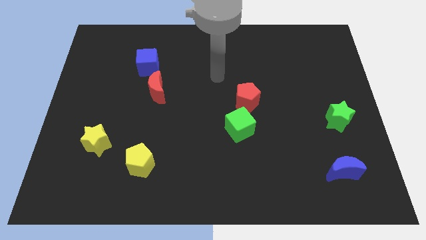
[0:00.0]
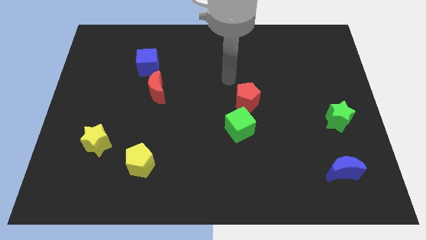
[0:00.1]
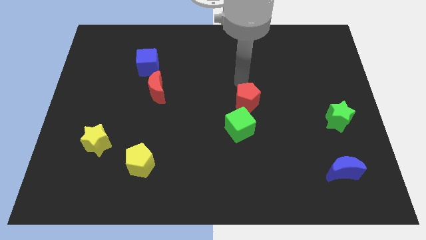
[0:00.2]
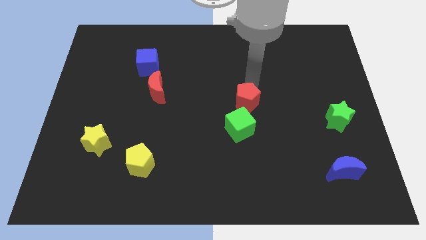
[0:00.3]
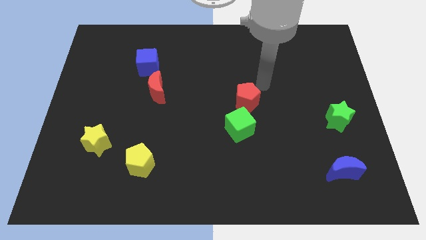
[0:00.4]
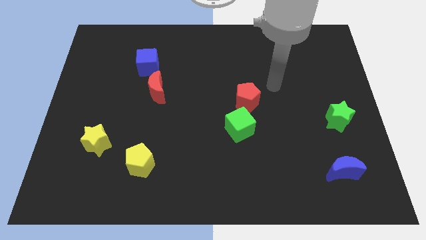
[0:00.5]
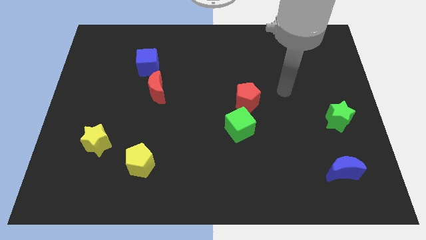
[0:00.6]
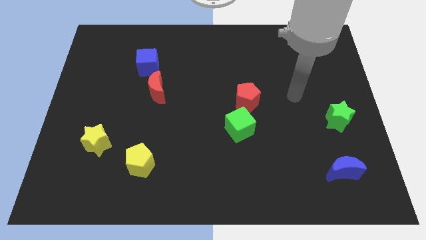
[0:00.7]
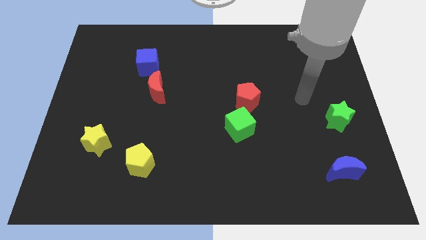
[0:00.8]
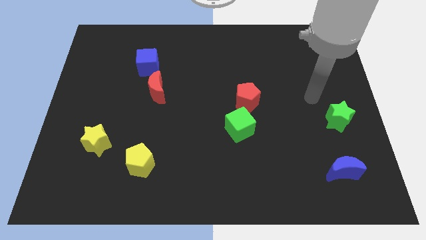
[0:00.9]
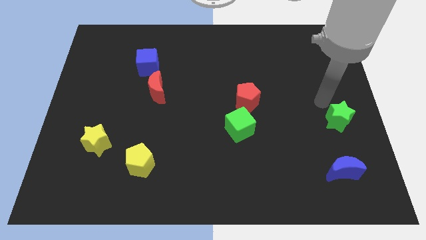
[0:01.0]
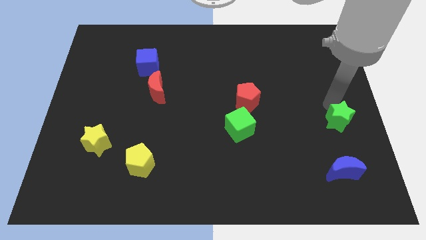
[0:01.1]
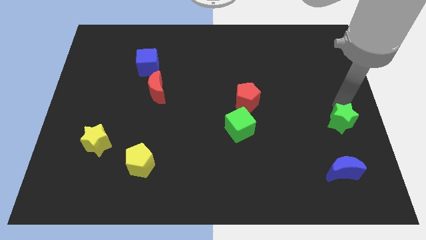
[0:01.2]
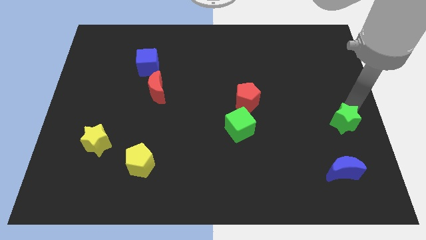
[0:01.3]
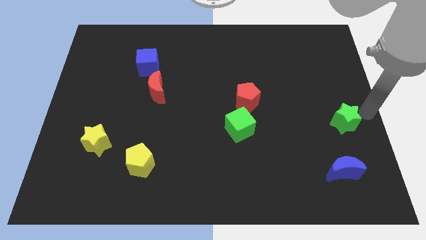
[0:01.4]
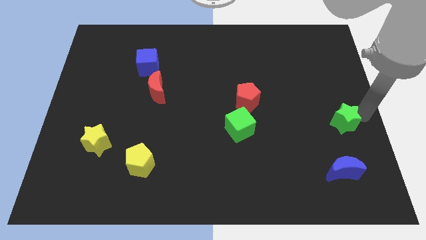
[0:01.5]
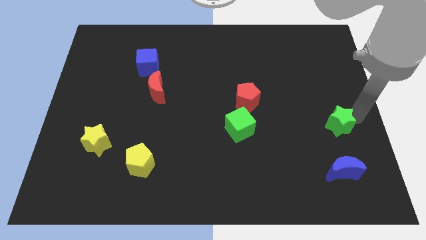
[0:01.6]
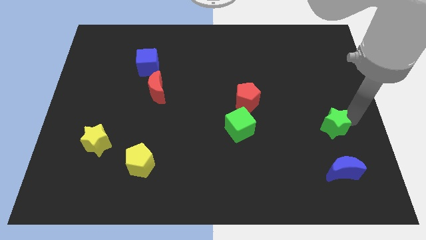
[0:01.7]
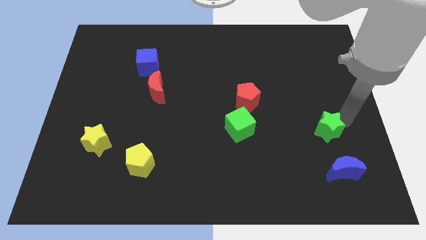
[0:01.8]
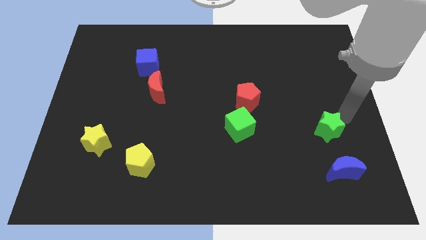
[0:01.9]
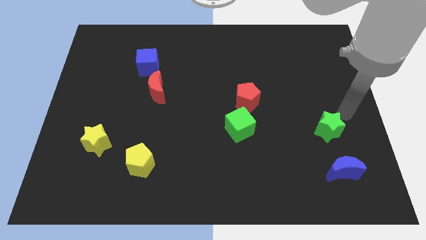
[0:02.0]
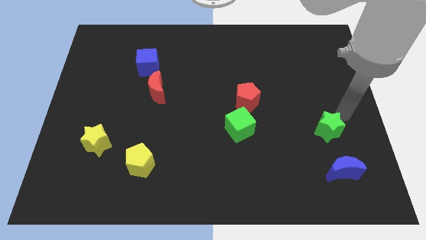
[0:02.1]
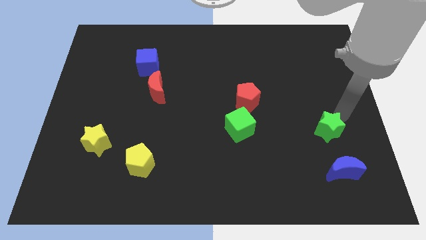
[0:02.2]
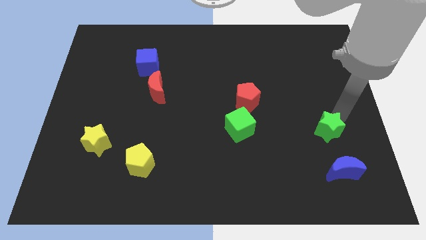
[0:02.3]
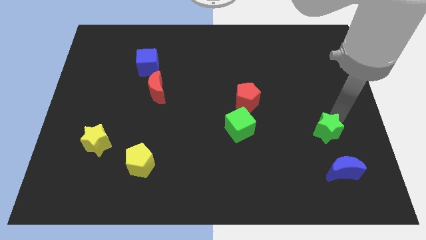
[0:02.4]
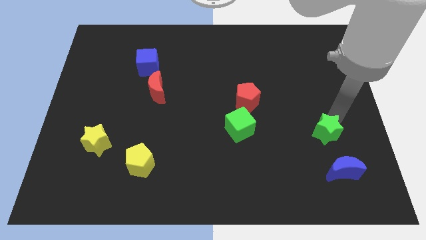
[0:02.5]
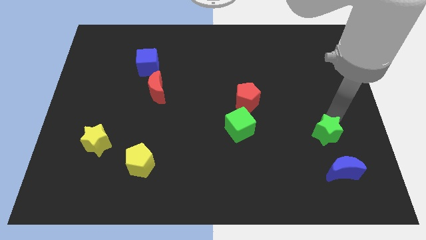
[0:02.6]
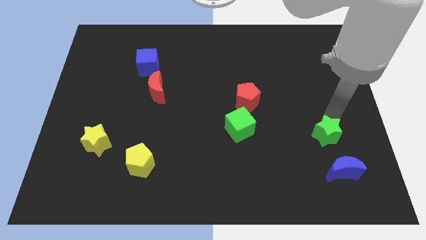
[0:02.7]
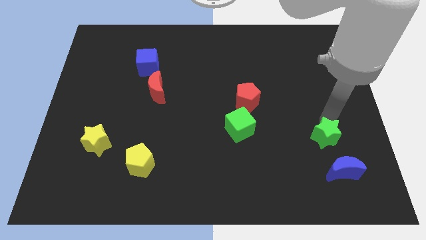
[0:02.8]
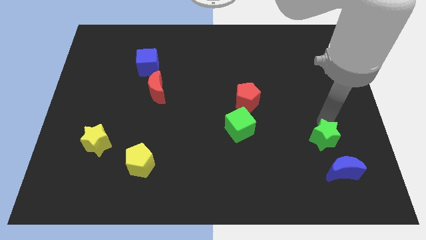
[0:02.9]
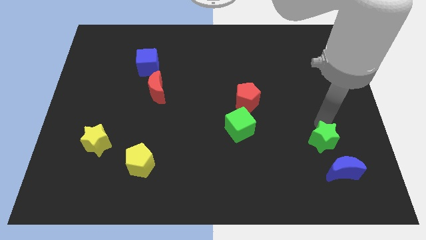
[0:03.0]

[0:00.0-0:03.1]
move the green star a little bit down and left

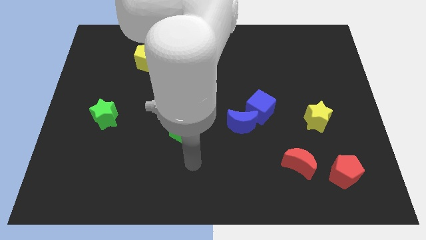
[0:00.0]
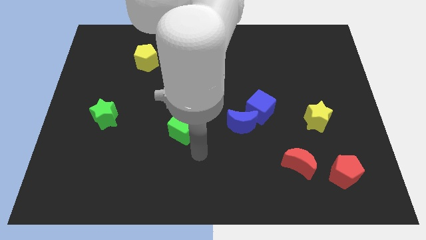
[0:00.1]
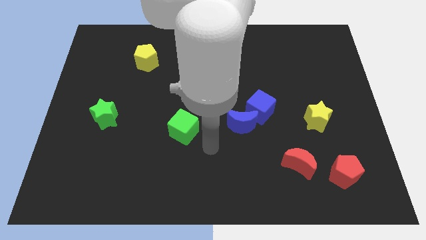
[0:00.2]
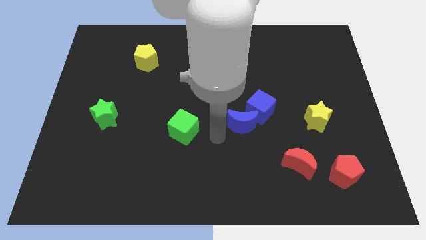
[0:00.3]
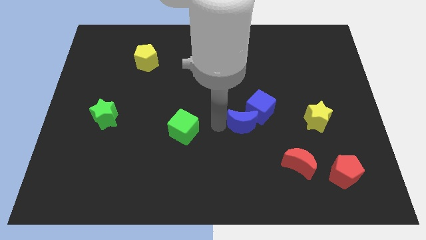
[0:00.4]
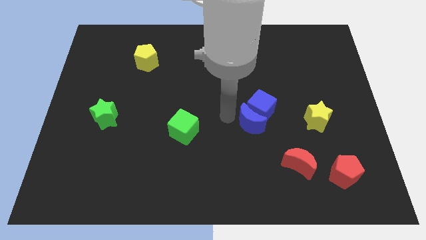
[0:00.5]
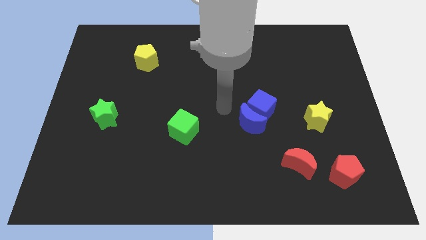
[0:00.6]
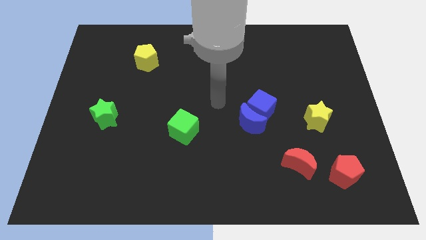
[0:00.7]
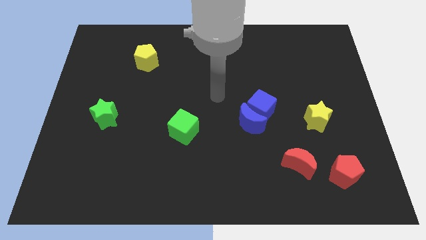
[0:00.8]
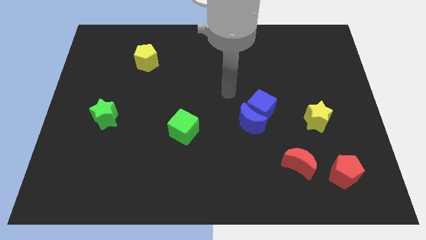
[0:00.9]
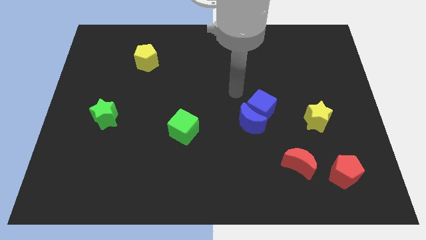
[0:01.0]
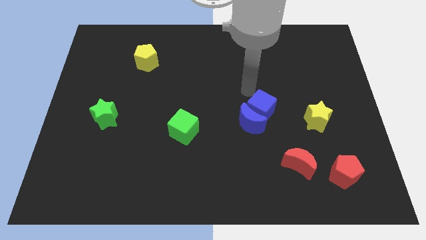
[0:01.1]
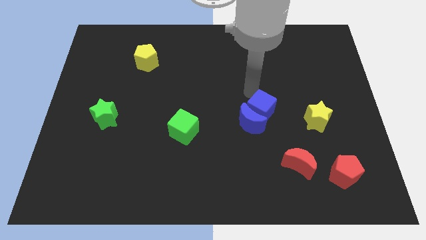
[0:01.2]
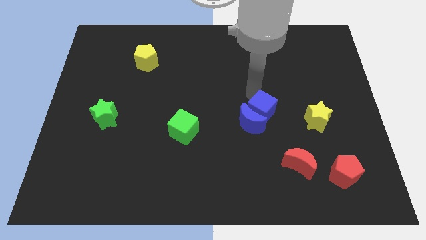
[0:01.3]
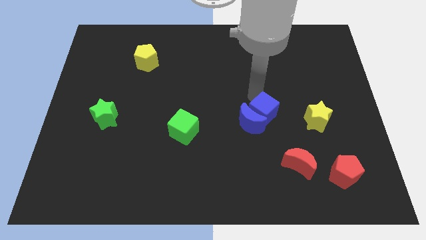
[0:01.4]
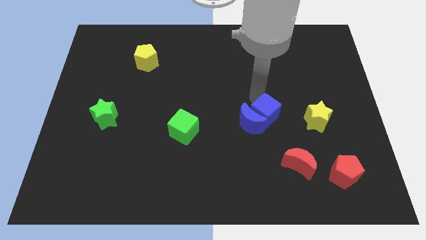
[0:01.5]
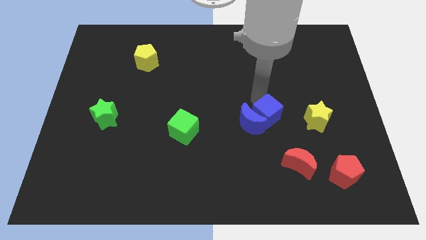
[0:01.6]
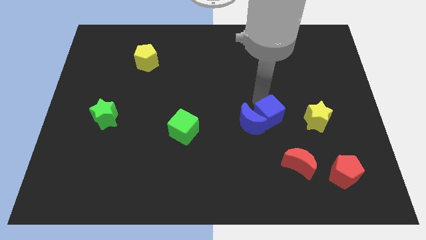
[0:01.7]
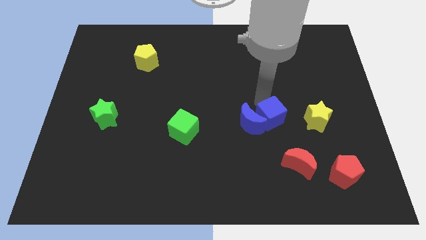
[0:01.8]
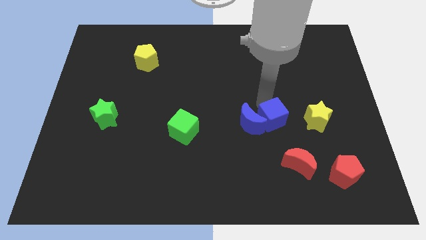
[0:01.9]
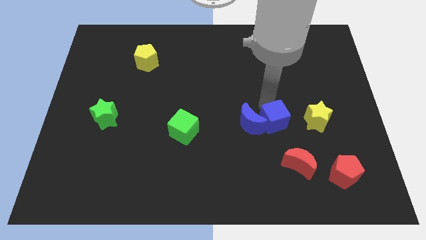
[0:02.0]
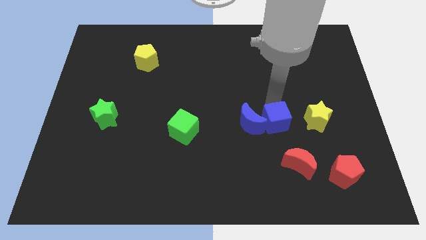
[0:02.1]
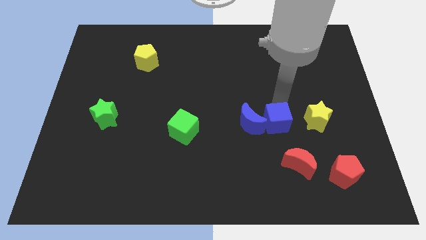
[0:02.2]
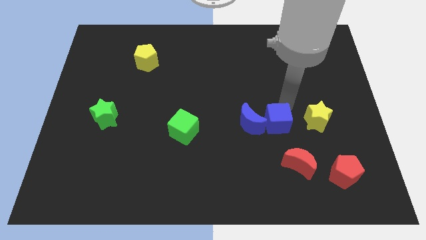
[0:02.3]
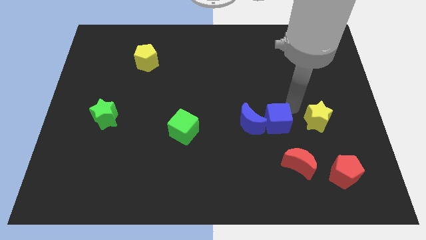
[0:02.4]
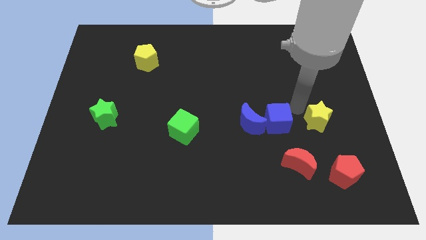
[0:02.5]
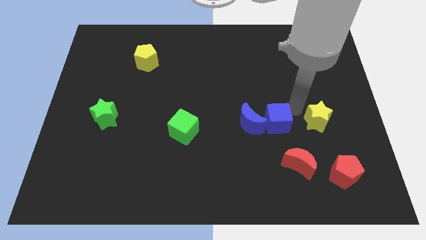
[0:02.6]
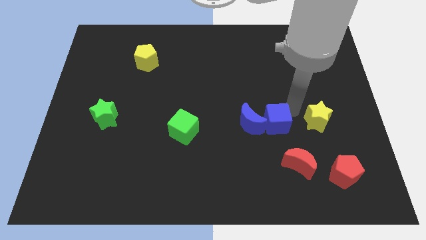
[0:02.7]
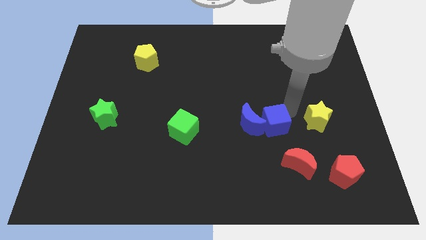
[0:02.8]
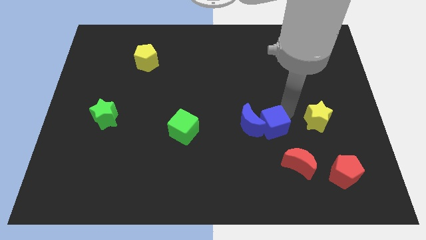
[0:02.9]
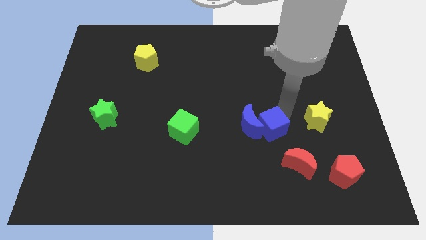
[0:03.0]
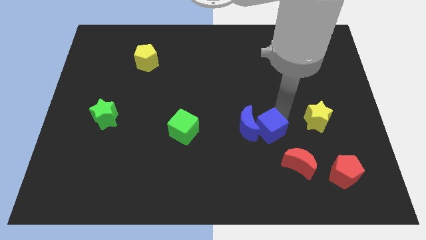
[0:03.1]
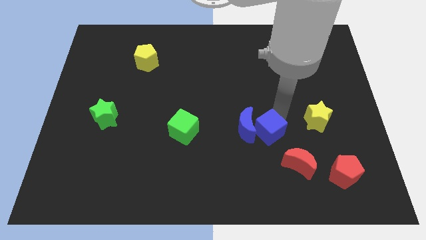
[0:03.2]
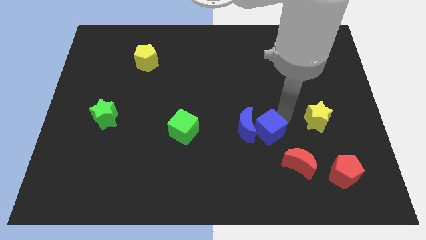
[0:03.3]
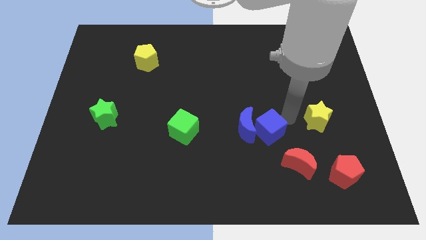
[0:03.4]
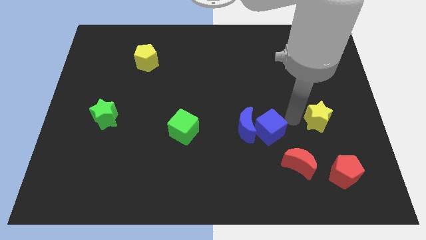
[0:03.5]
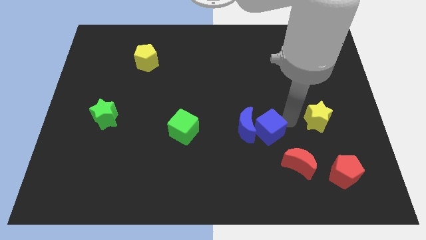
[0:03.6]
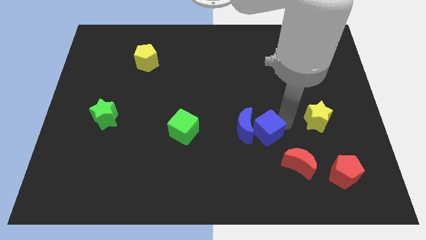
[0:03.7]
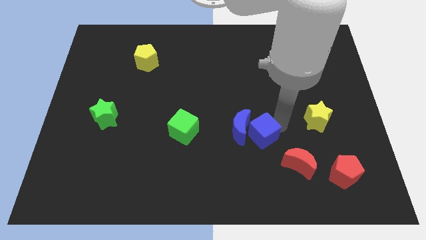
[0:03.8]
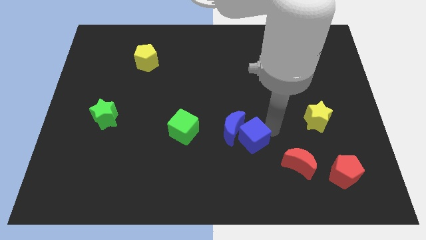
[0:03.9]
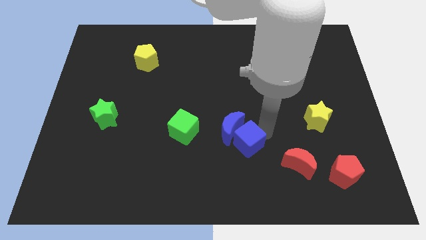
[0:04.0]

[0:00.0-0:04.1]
slightly slide the blue cube downwards and to the left diagonally

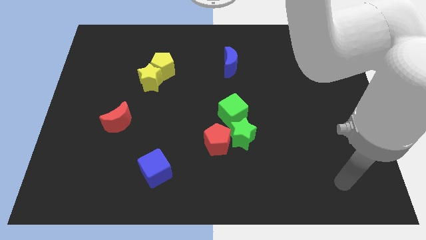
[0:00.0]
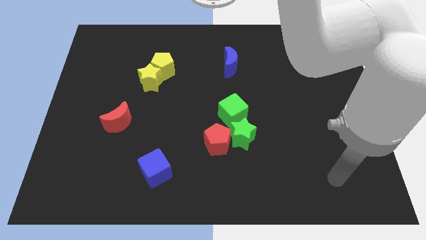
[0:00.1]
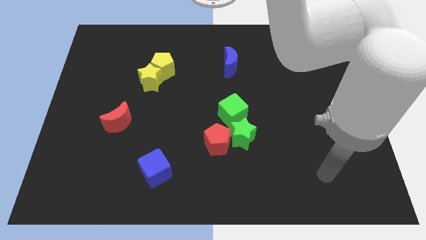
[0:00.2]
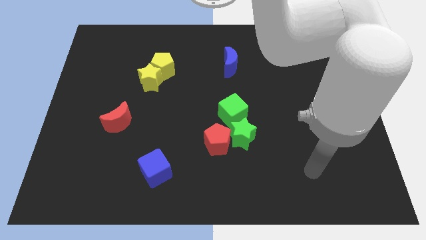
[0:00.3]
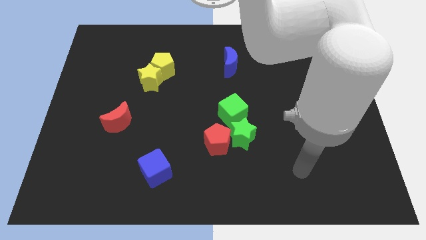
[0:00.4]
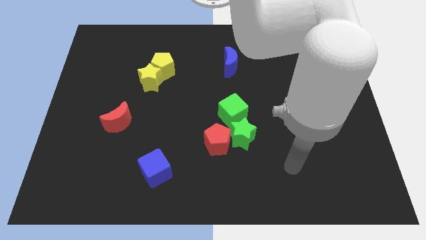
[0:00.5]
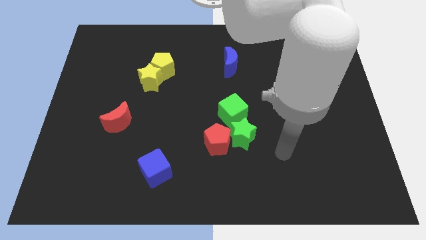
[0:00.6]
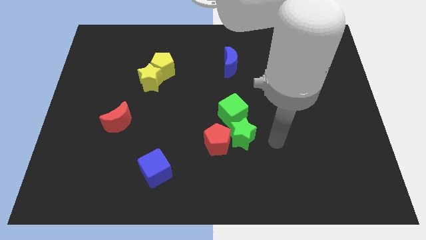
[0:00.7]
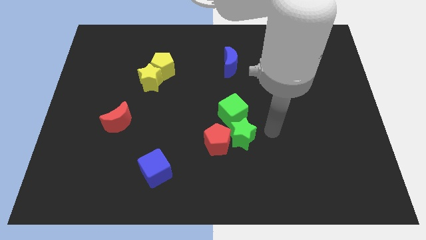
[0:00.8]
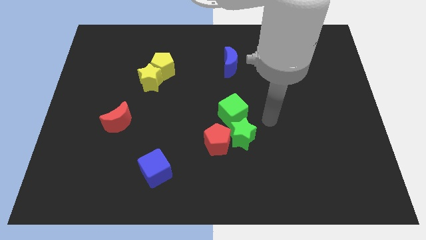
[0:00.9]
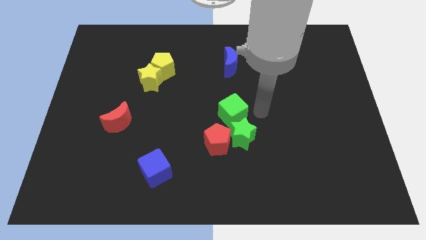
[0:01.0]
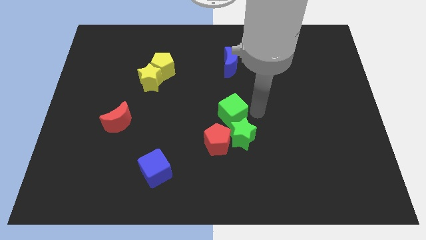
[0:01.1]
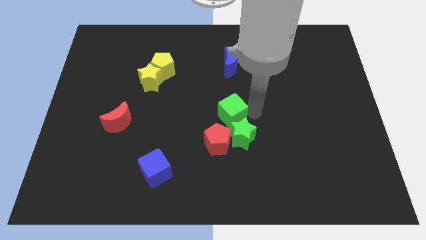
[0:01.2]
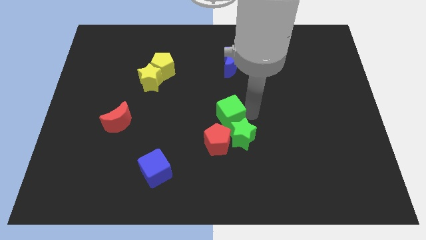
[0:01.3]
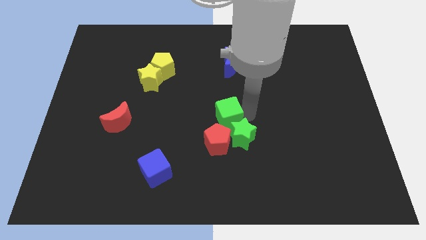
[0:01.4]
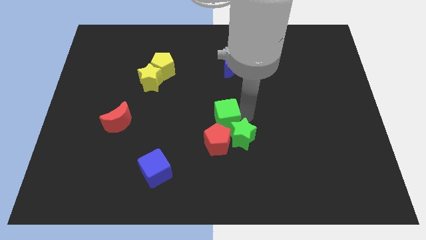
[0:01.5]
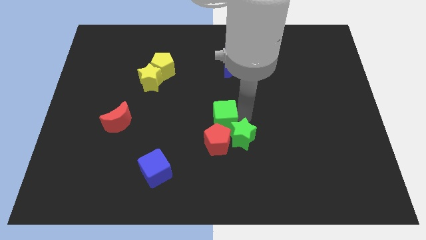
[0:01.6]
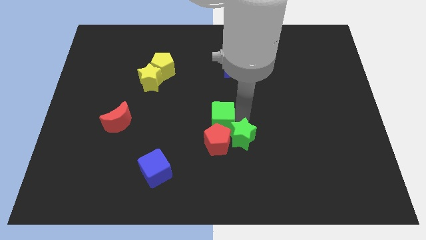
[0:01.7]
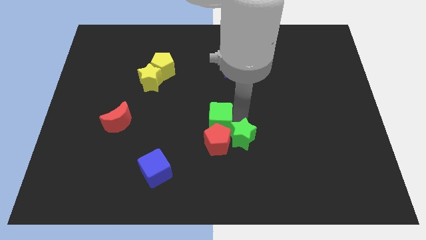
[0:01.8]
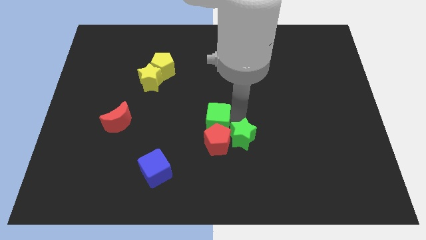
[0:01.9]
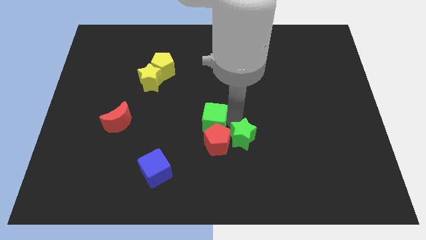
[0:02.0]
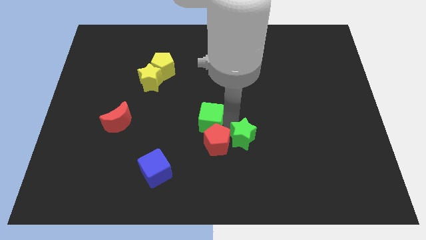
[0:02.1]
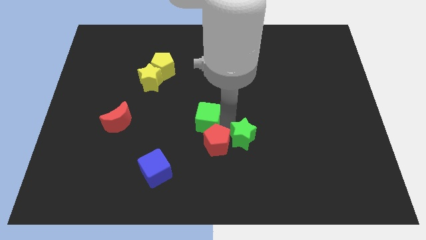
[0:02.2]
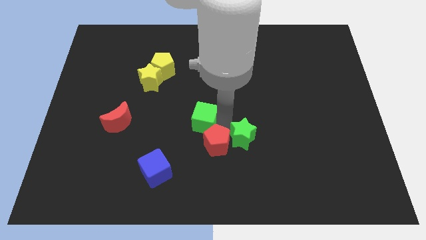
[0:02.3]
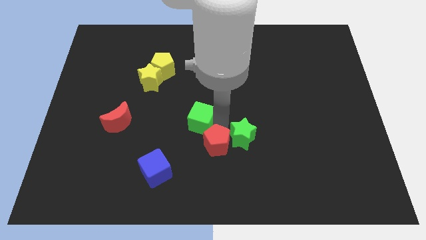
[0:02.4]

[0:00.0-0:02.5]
slightly push the green cube left
